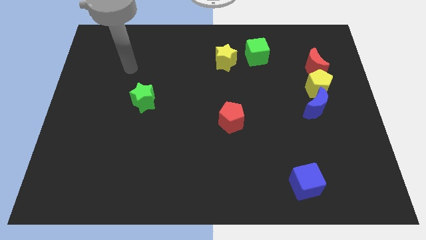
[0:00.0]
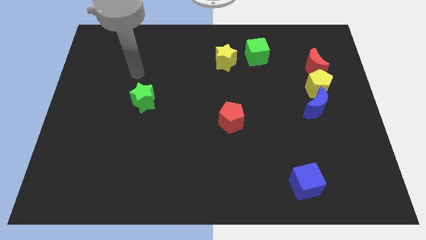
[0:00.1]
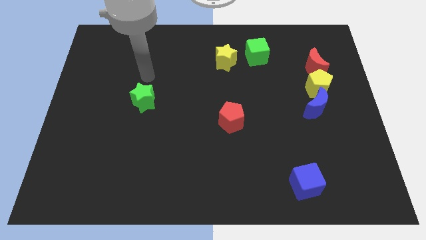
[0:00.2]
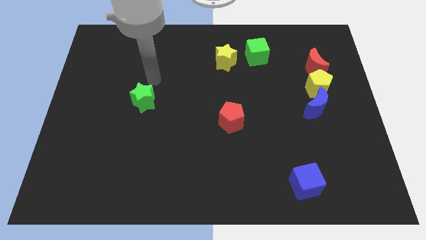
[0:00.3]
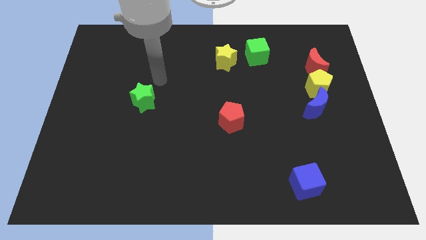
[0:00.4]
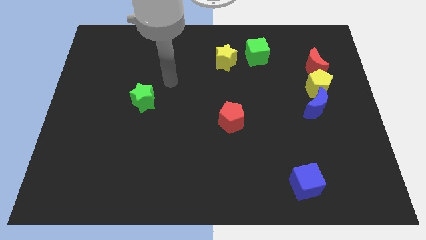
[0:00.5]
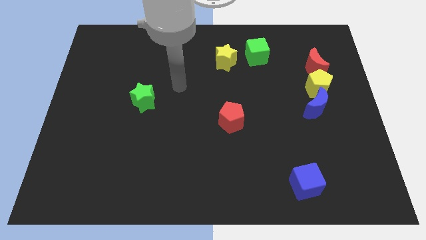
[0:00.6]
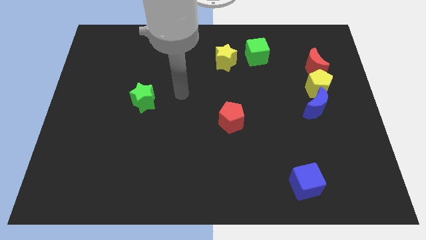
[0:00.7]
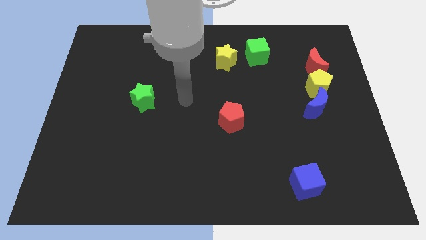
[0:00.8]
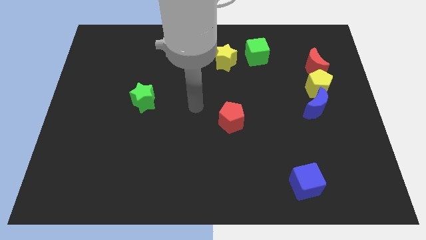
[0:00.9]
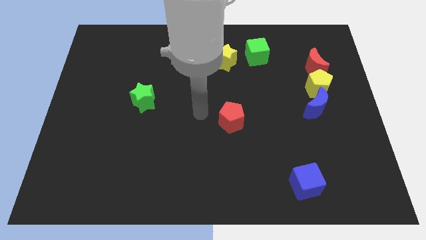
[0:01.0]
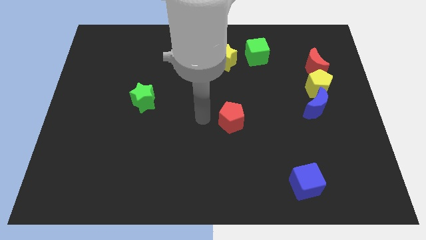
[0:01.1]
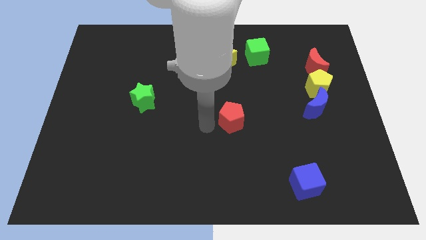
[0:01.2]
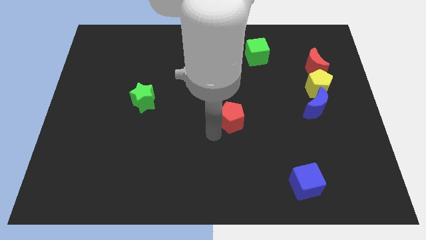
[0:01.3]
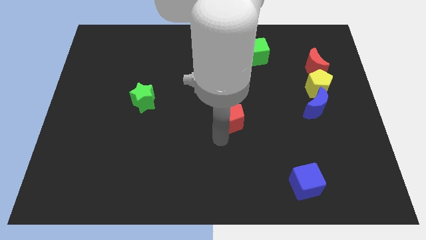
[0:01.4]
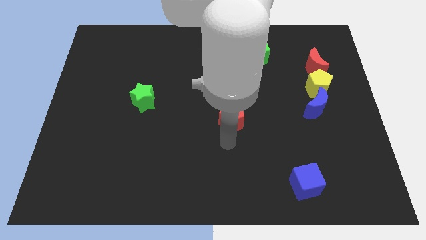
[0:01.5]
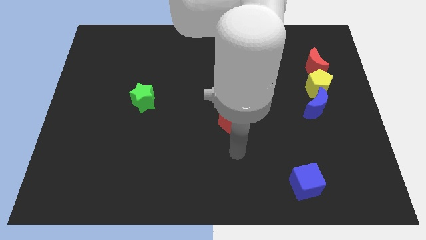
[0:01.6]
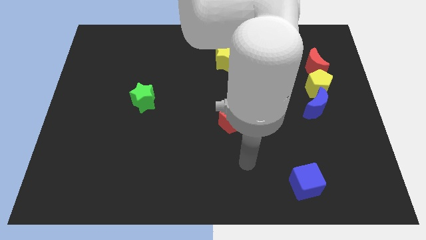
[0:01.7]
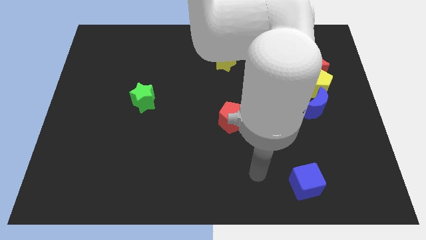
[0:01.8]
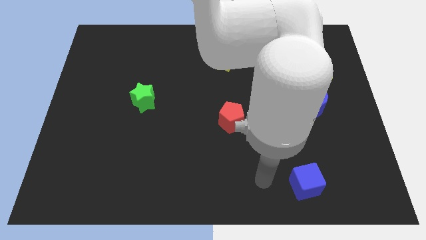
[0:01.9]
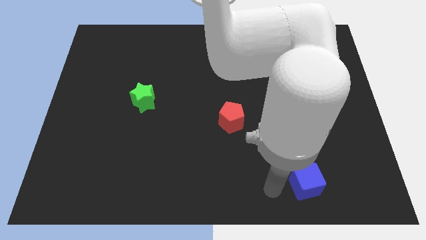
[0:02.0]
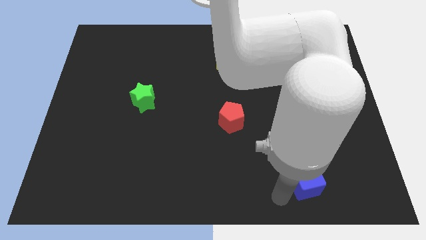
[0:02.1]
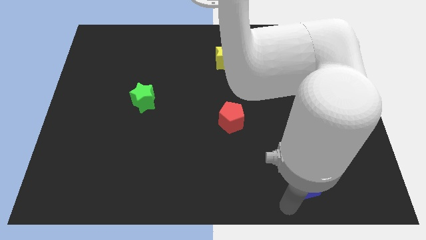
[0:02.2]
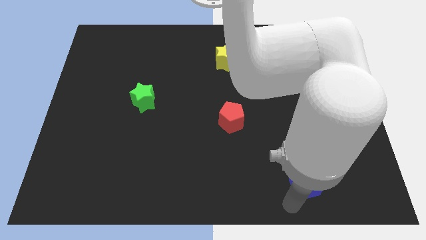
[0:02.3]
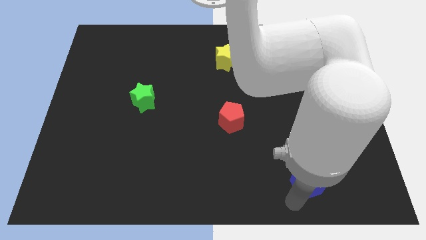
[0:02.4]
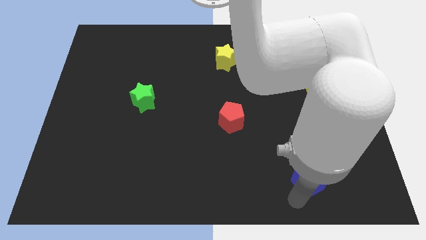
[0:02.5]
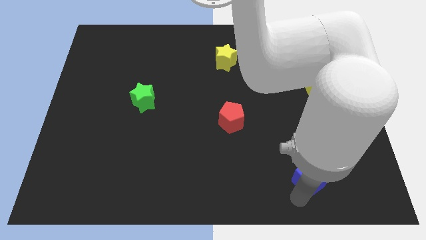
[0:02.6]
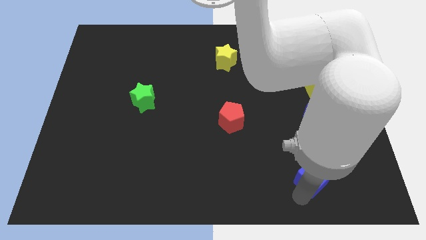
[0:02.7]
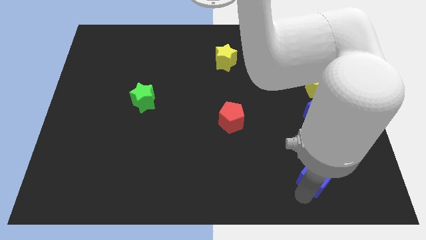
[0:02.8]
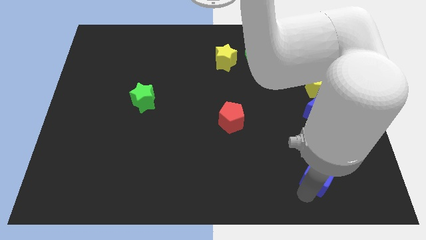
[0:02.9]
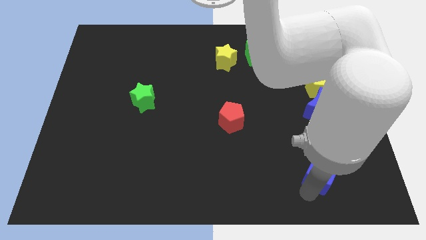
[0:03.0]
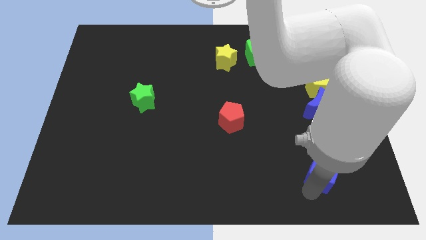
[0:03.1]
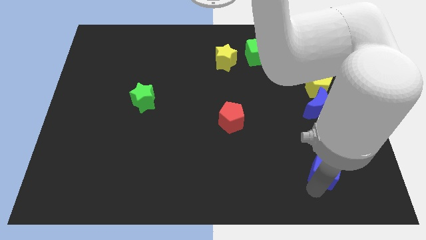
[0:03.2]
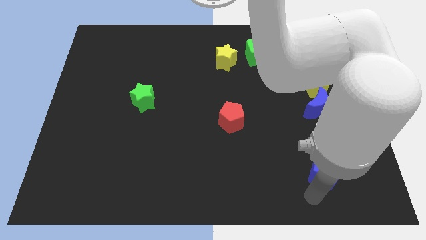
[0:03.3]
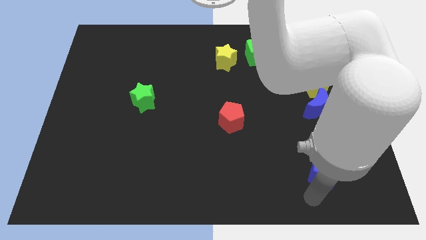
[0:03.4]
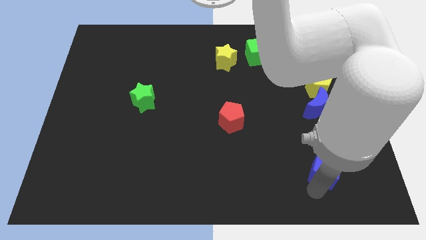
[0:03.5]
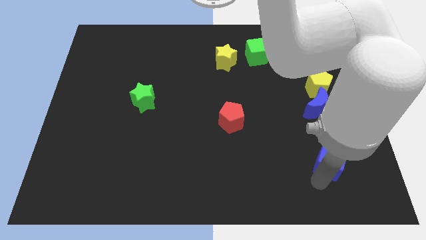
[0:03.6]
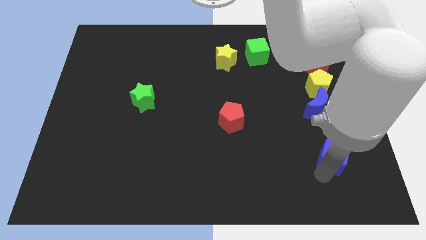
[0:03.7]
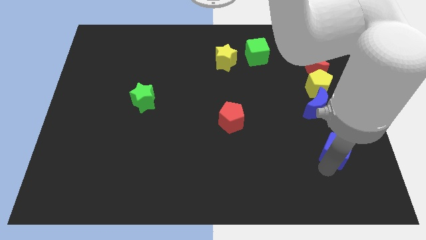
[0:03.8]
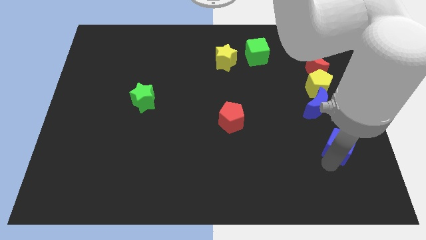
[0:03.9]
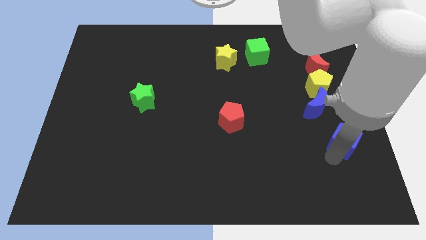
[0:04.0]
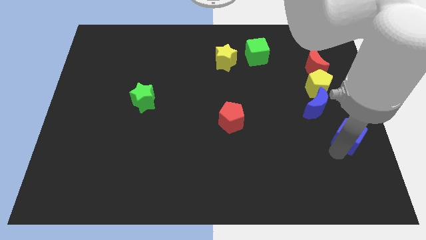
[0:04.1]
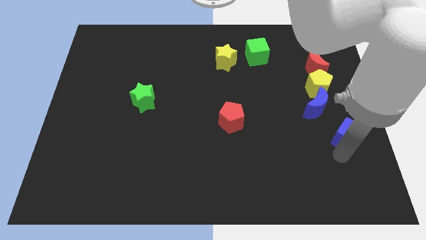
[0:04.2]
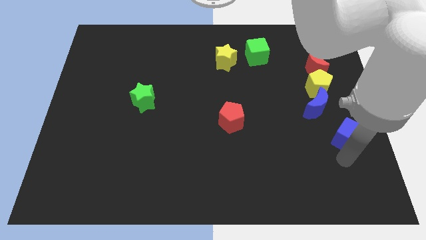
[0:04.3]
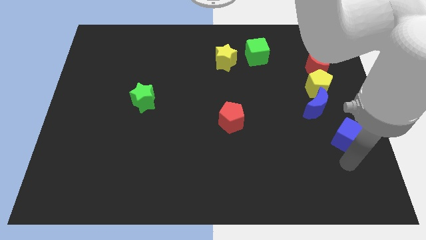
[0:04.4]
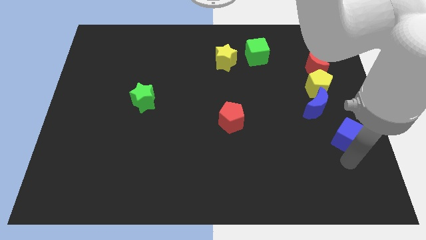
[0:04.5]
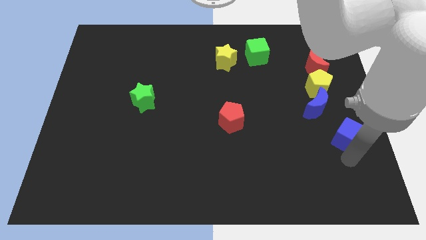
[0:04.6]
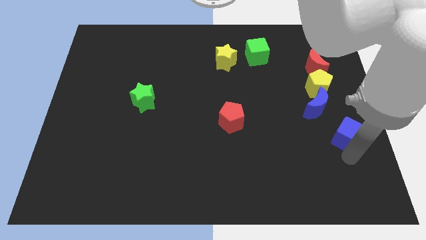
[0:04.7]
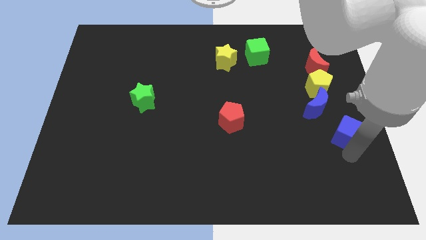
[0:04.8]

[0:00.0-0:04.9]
put the blue cube to the bottom side of the yellow pentagon

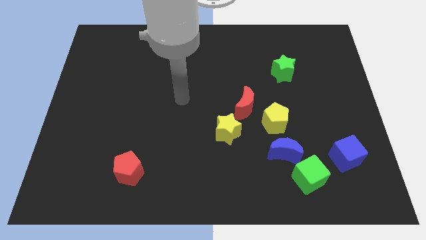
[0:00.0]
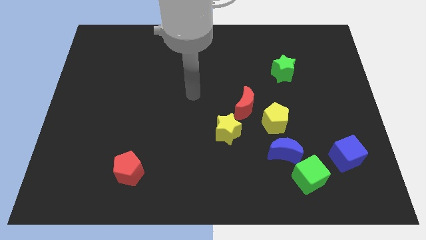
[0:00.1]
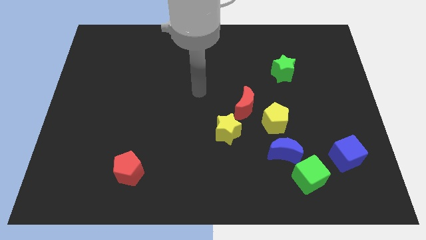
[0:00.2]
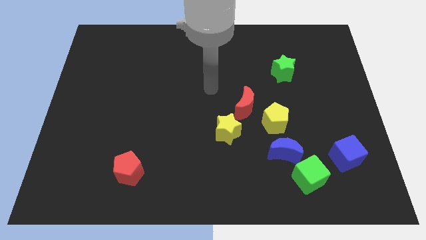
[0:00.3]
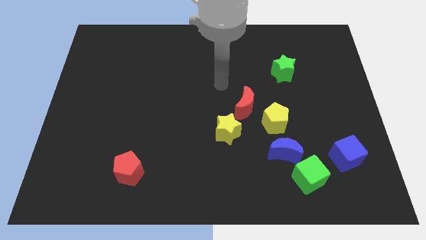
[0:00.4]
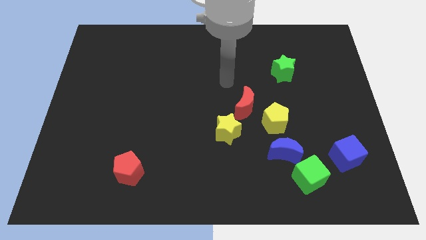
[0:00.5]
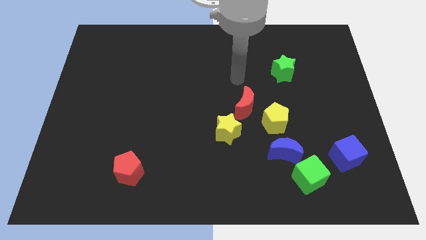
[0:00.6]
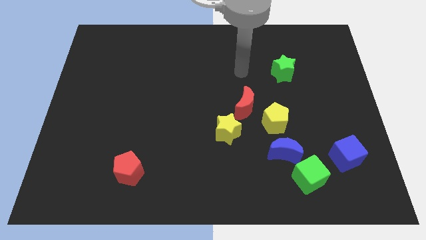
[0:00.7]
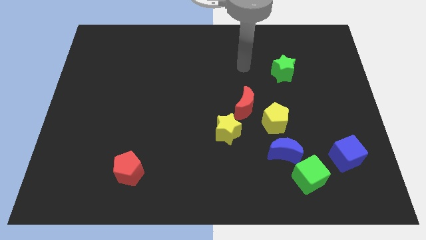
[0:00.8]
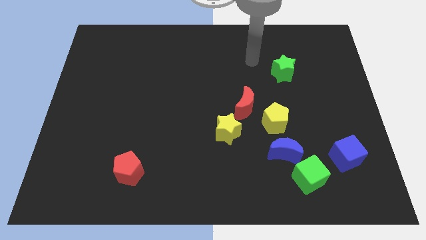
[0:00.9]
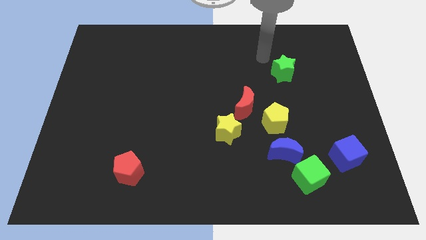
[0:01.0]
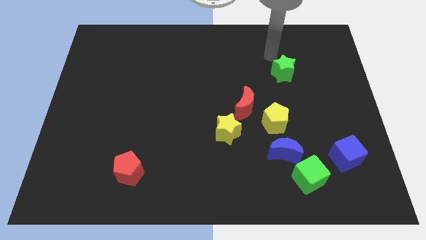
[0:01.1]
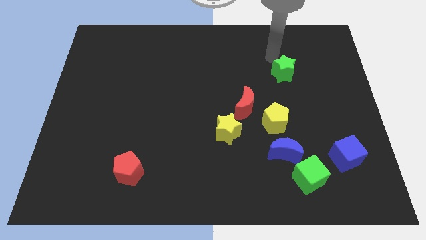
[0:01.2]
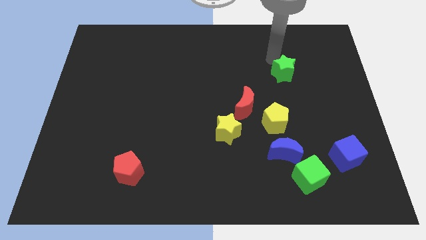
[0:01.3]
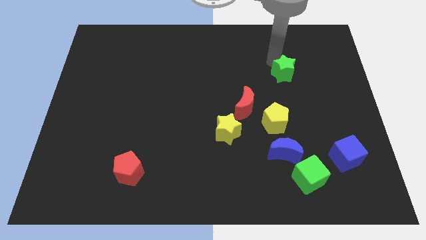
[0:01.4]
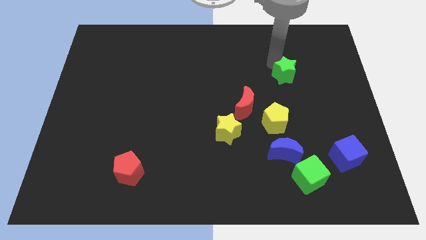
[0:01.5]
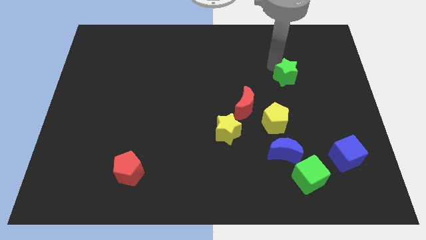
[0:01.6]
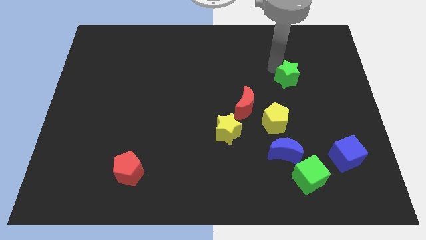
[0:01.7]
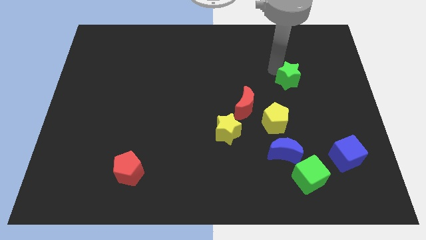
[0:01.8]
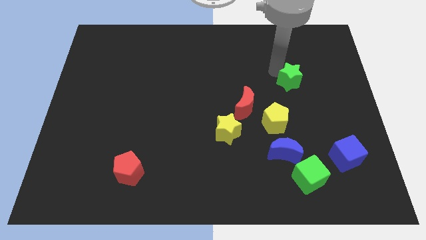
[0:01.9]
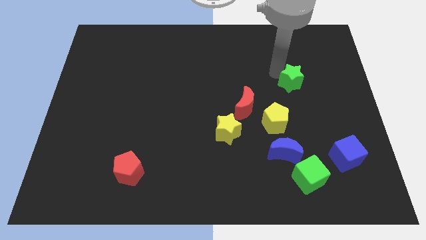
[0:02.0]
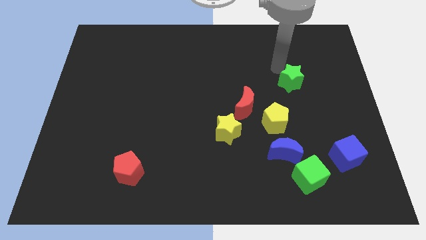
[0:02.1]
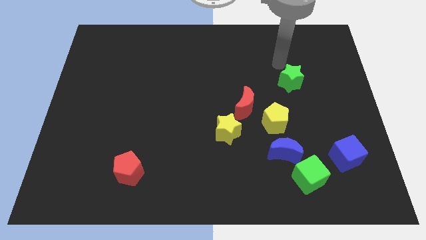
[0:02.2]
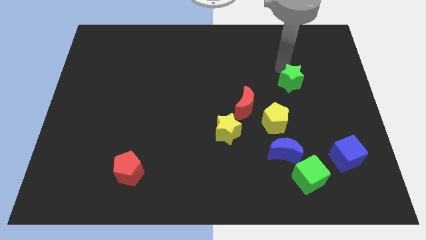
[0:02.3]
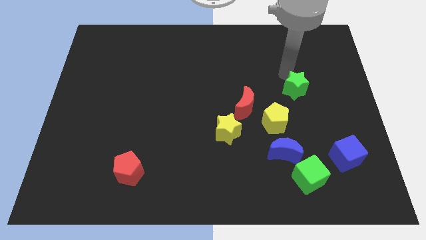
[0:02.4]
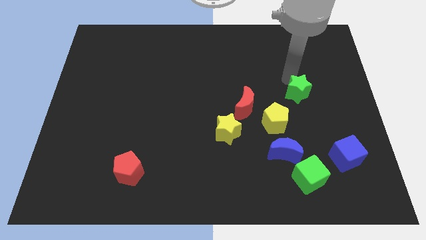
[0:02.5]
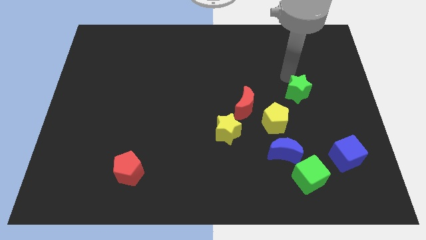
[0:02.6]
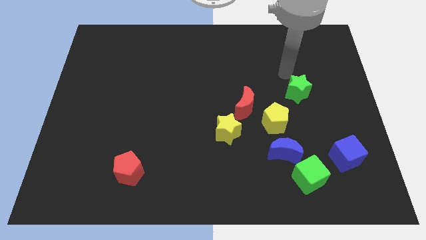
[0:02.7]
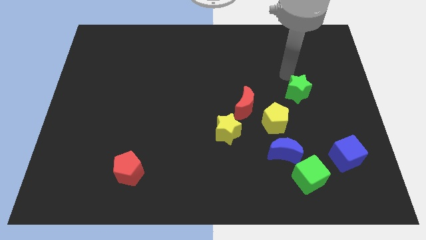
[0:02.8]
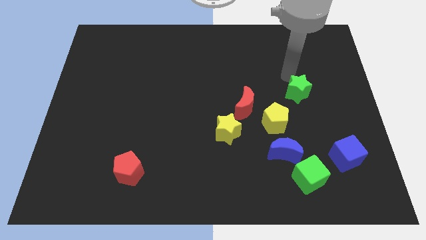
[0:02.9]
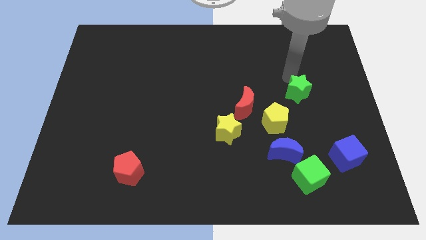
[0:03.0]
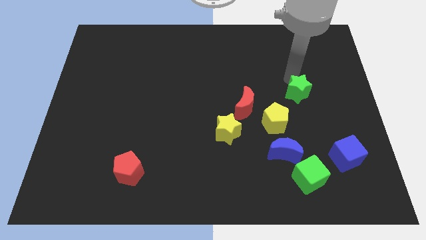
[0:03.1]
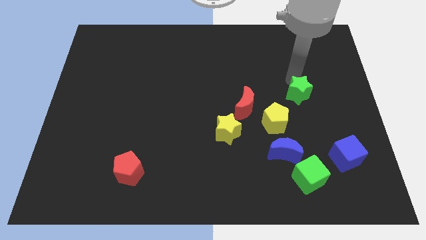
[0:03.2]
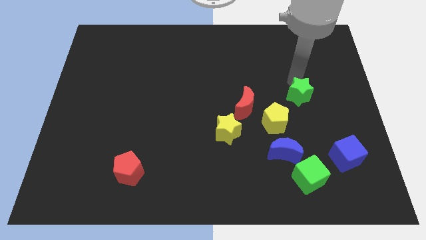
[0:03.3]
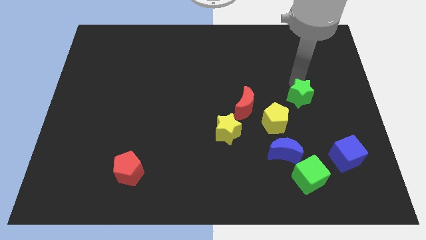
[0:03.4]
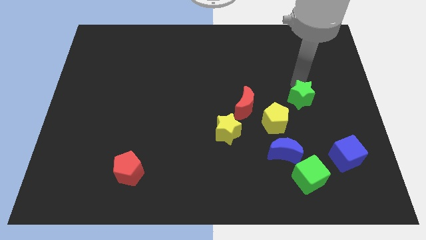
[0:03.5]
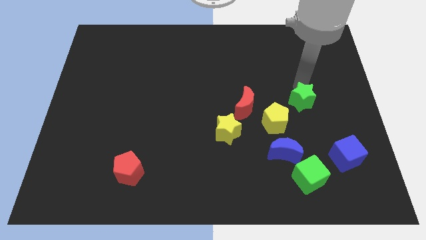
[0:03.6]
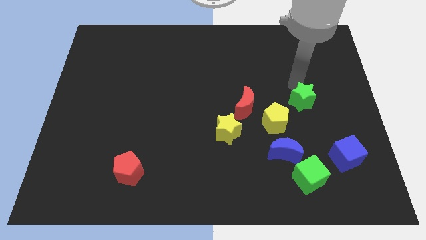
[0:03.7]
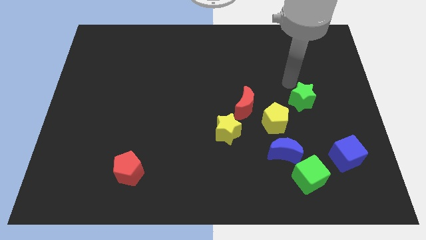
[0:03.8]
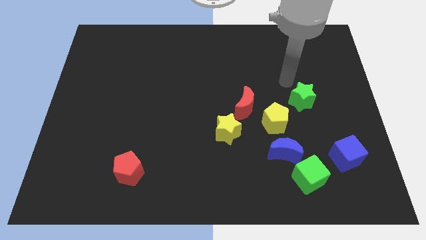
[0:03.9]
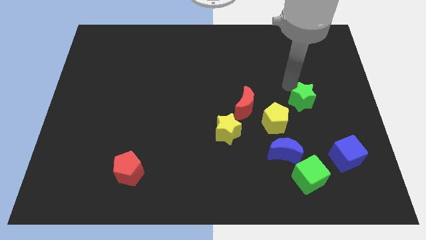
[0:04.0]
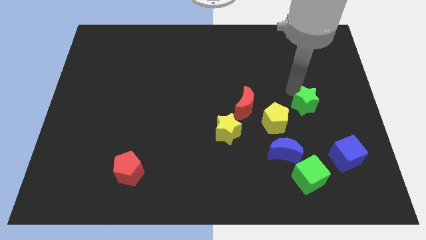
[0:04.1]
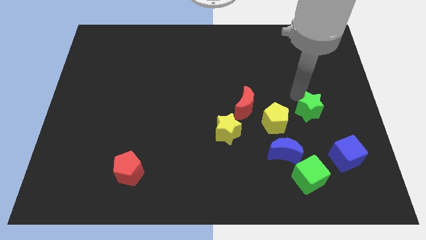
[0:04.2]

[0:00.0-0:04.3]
slide the green star to the right side of the yellow pentagon
